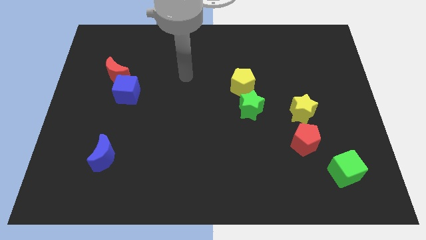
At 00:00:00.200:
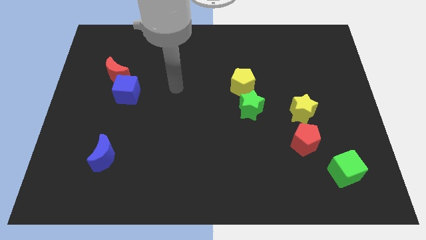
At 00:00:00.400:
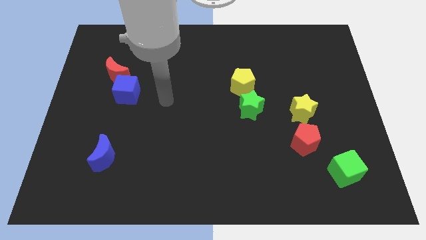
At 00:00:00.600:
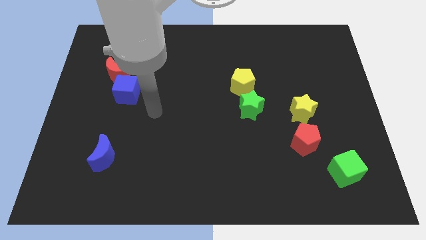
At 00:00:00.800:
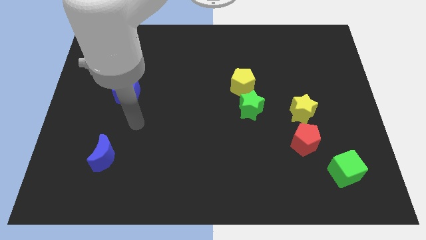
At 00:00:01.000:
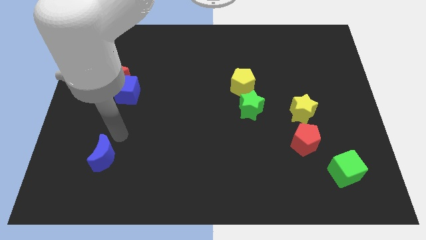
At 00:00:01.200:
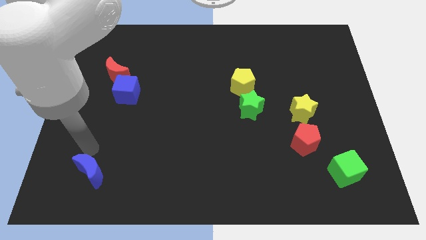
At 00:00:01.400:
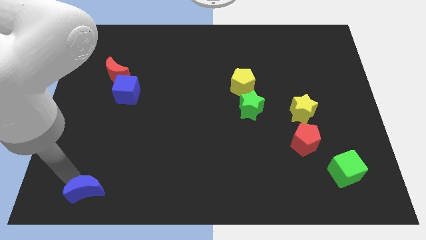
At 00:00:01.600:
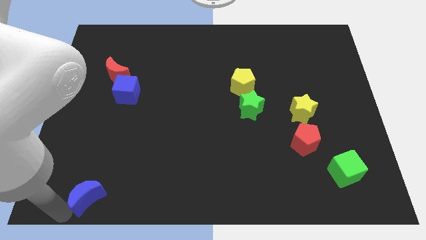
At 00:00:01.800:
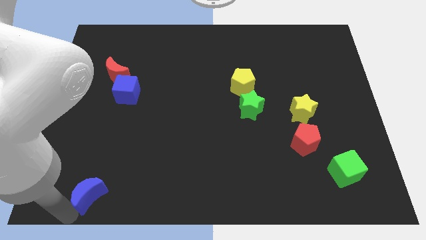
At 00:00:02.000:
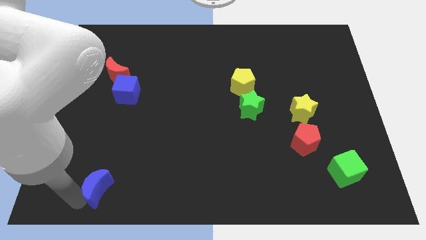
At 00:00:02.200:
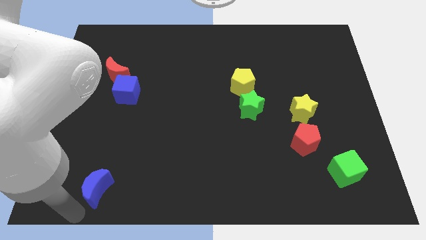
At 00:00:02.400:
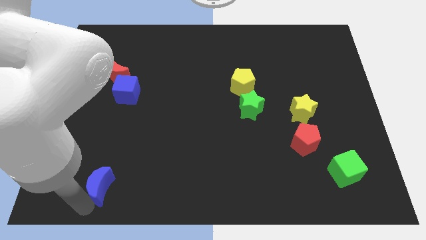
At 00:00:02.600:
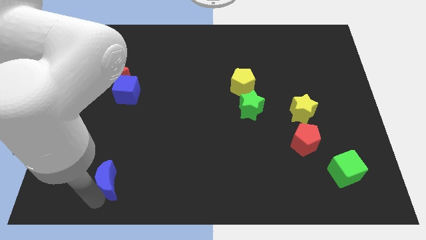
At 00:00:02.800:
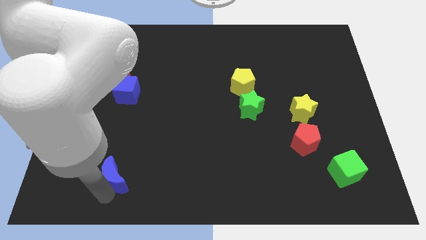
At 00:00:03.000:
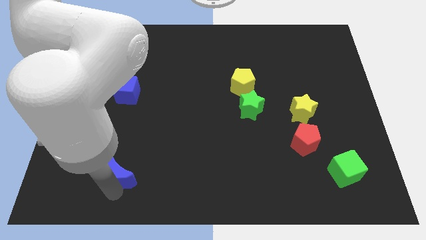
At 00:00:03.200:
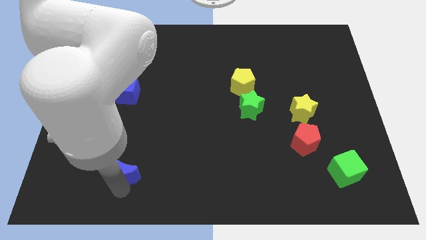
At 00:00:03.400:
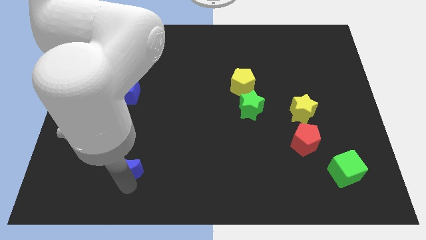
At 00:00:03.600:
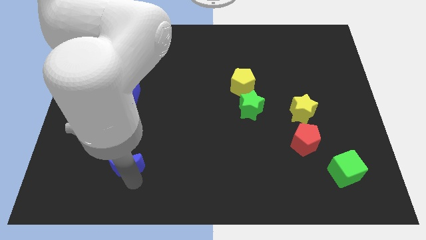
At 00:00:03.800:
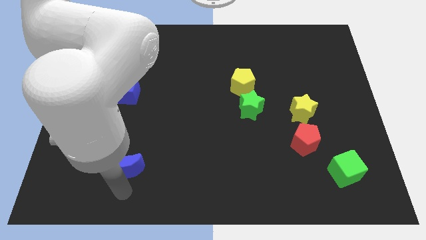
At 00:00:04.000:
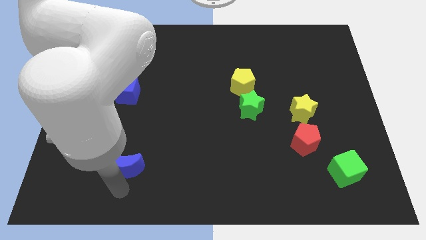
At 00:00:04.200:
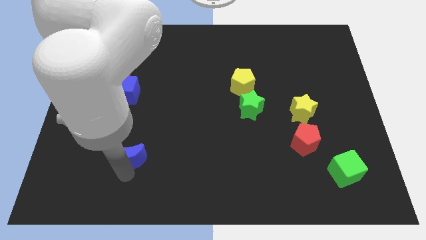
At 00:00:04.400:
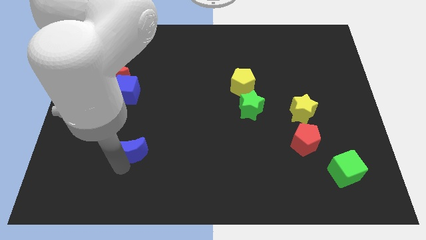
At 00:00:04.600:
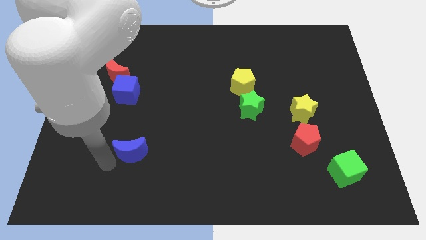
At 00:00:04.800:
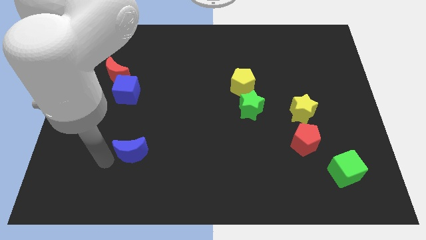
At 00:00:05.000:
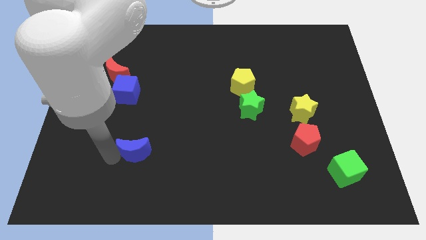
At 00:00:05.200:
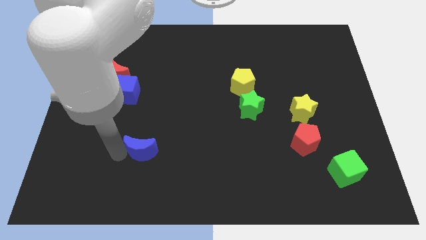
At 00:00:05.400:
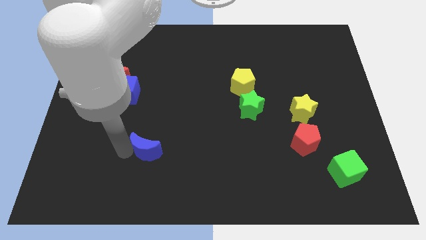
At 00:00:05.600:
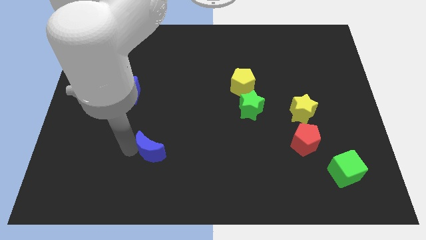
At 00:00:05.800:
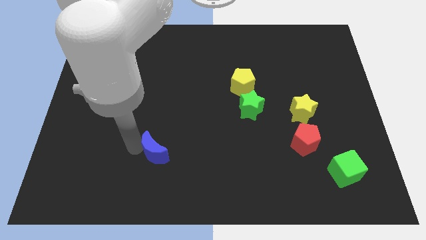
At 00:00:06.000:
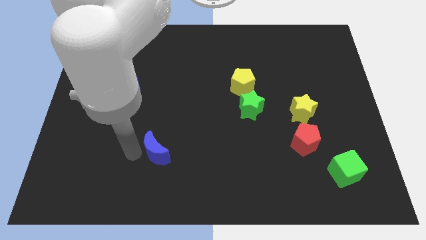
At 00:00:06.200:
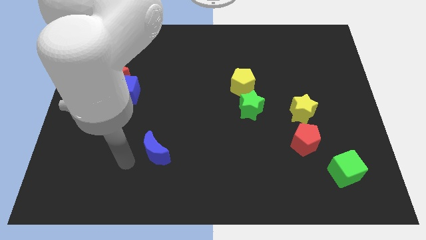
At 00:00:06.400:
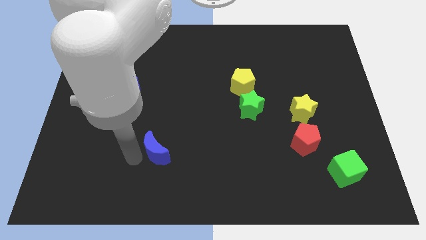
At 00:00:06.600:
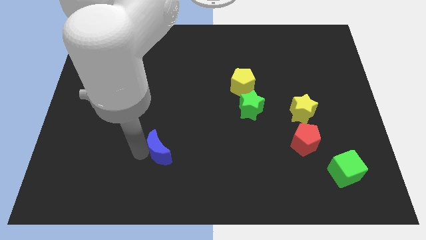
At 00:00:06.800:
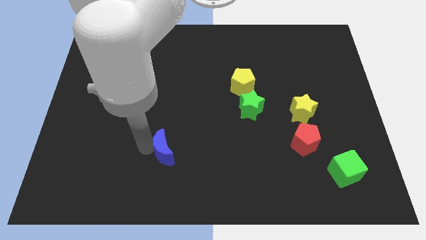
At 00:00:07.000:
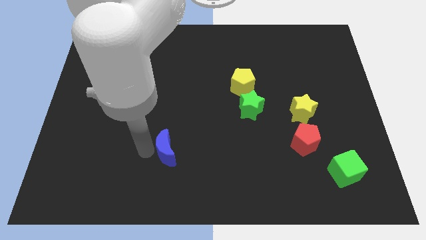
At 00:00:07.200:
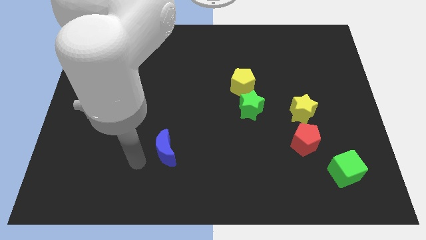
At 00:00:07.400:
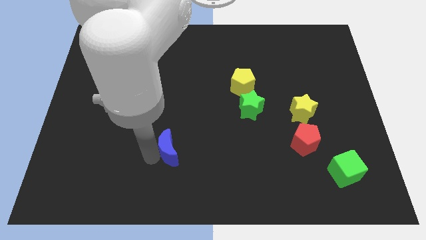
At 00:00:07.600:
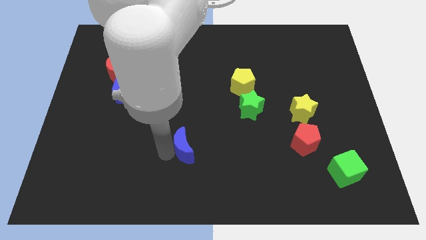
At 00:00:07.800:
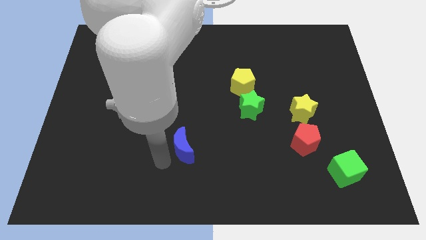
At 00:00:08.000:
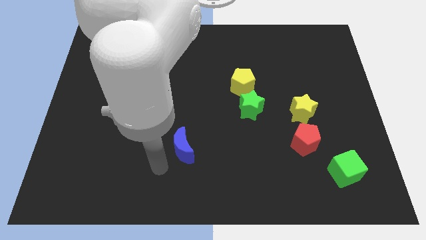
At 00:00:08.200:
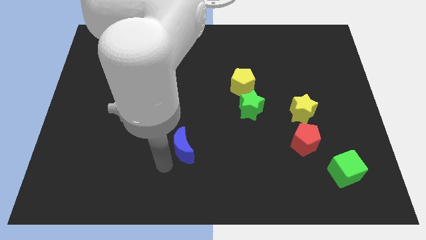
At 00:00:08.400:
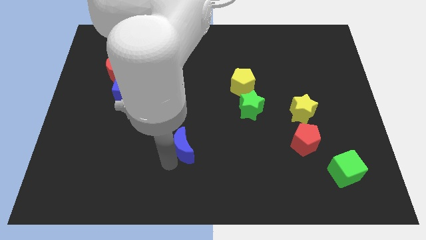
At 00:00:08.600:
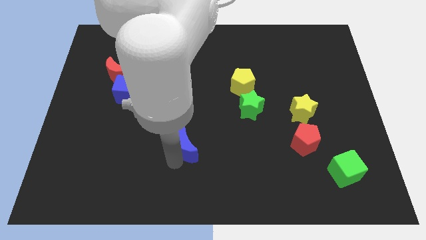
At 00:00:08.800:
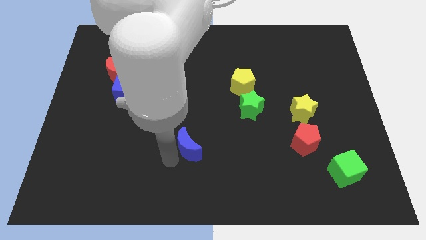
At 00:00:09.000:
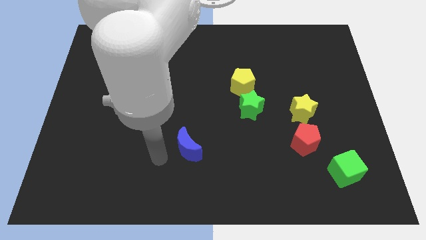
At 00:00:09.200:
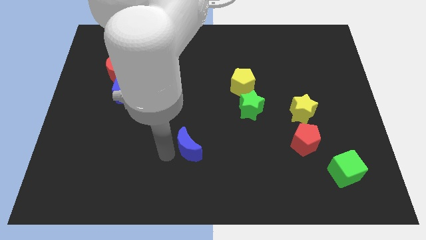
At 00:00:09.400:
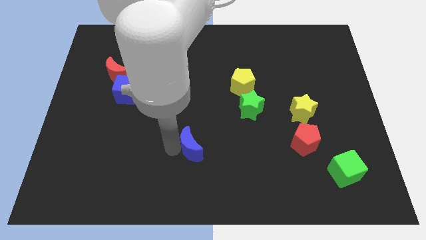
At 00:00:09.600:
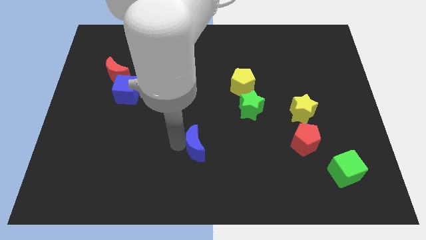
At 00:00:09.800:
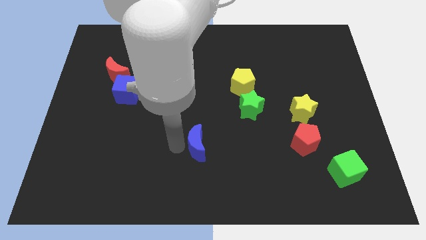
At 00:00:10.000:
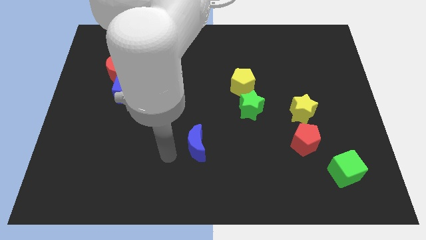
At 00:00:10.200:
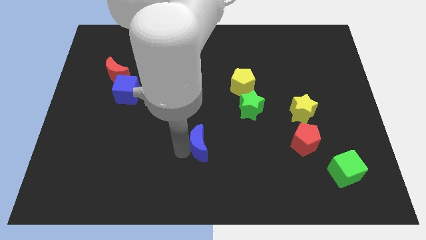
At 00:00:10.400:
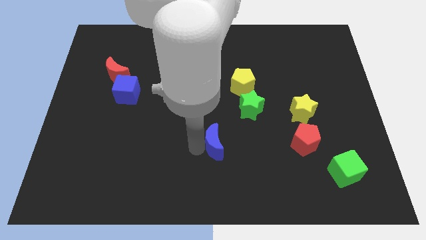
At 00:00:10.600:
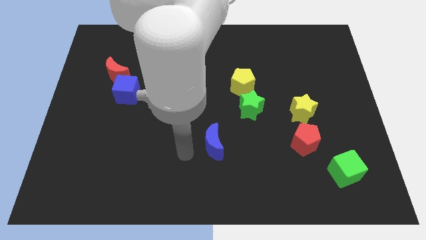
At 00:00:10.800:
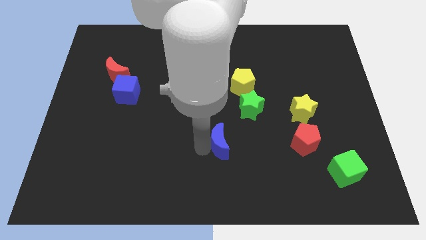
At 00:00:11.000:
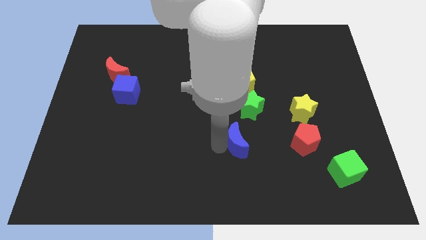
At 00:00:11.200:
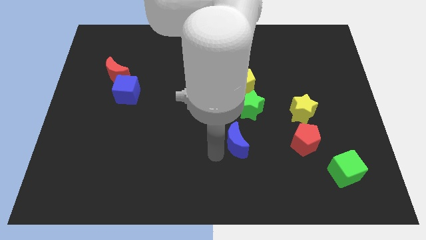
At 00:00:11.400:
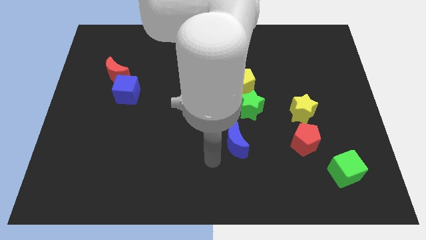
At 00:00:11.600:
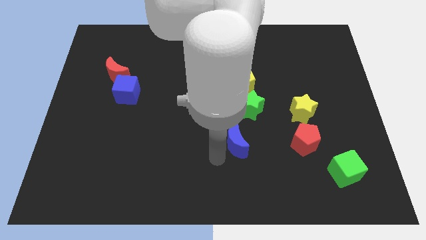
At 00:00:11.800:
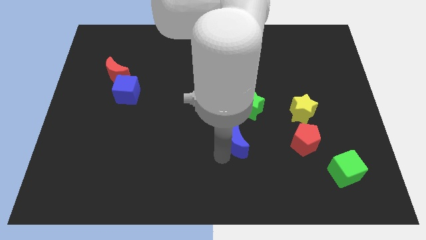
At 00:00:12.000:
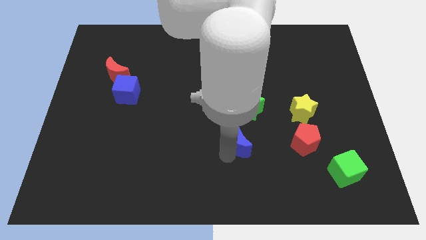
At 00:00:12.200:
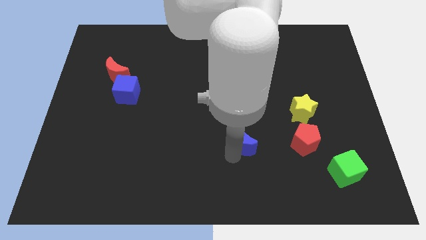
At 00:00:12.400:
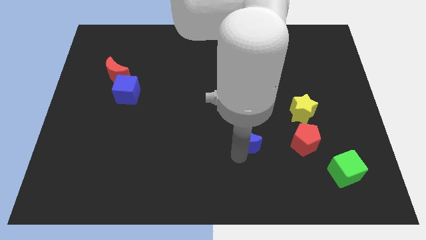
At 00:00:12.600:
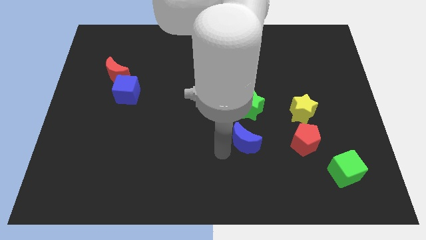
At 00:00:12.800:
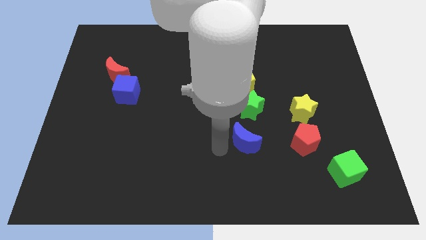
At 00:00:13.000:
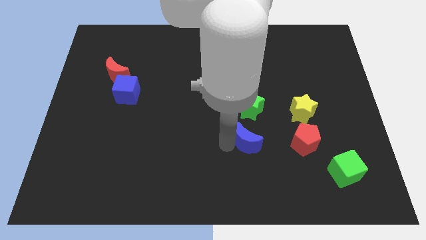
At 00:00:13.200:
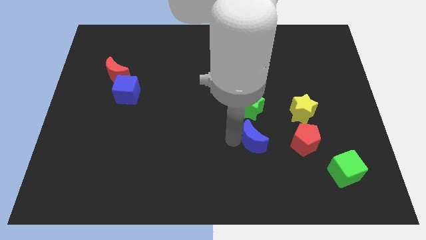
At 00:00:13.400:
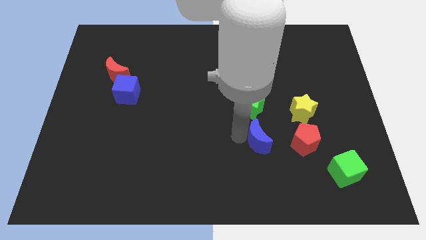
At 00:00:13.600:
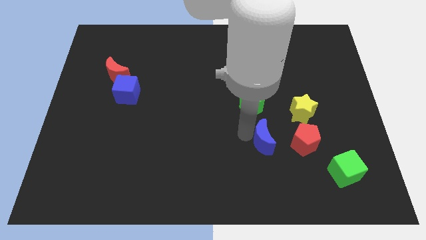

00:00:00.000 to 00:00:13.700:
move the blue moon to the bottom left of the yellow star
